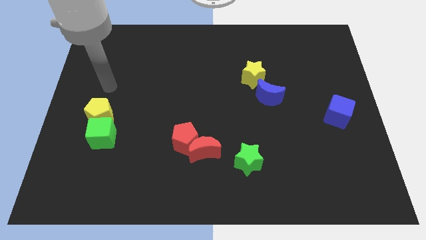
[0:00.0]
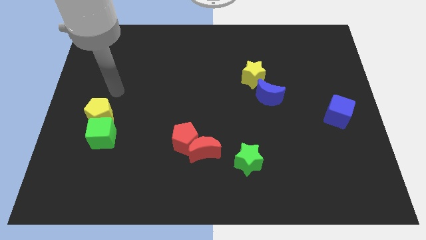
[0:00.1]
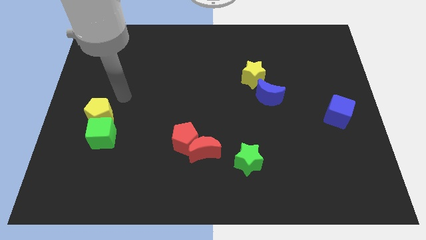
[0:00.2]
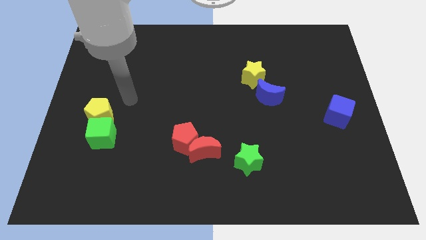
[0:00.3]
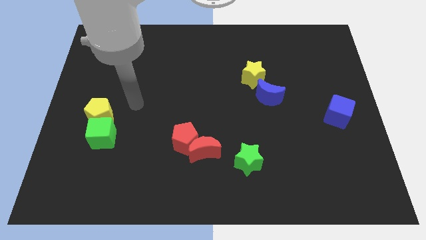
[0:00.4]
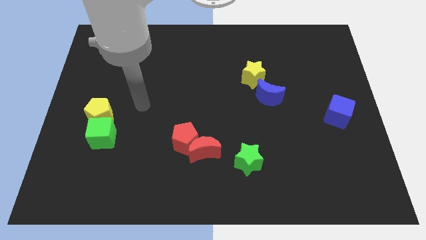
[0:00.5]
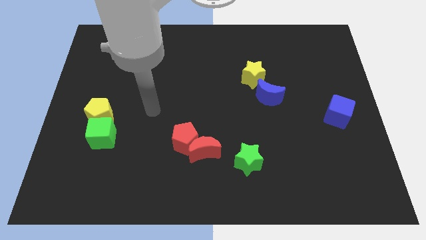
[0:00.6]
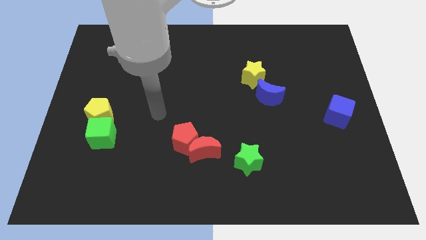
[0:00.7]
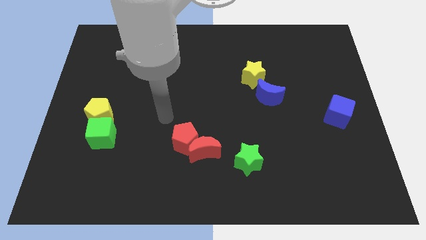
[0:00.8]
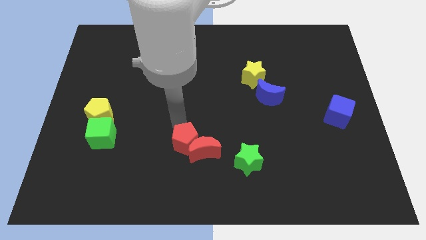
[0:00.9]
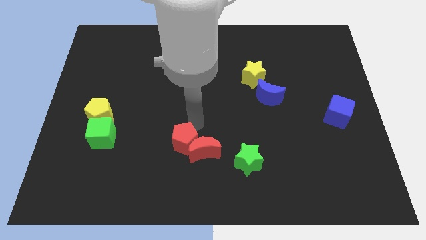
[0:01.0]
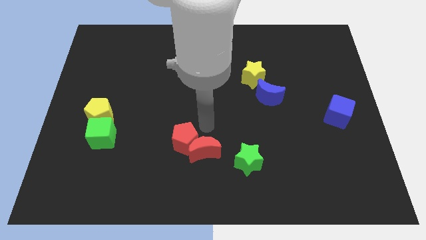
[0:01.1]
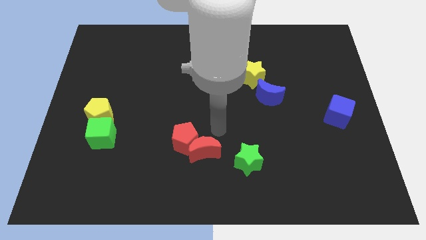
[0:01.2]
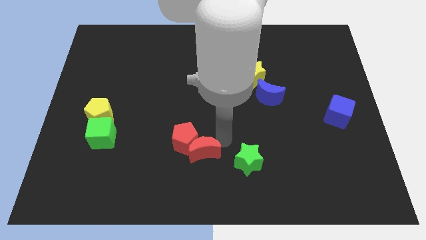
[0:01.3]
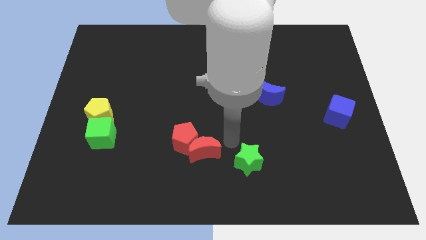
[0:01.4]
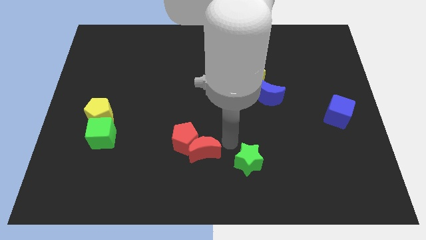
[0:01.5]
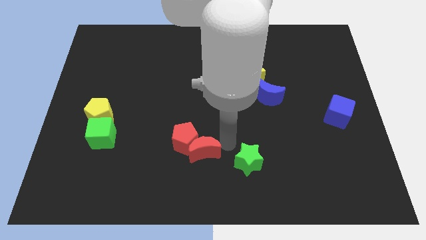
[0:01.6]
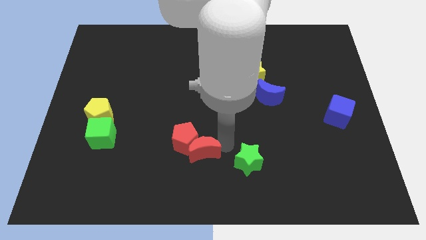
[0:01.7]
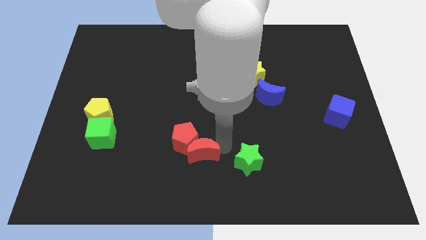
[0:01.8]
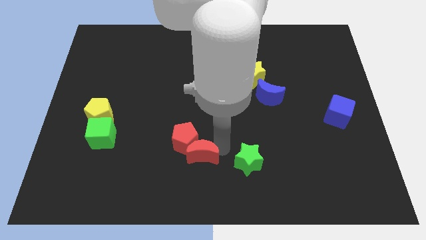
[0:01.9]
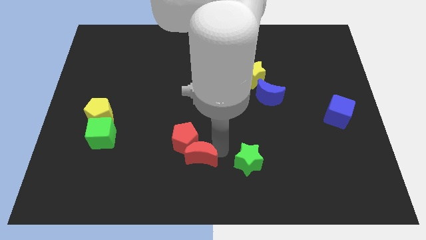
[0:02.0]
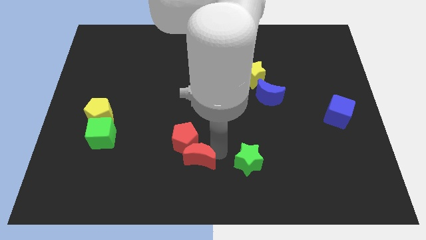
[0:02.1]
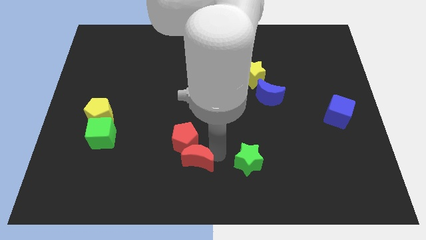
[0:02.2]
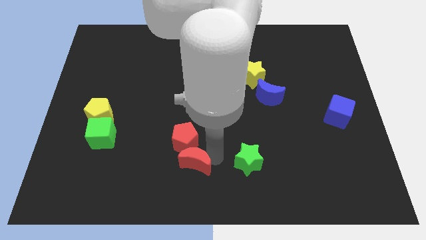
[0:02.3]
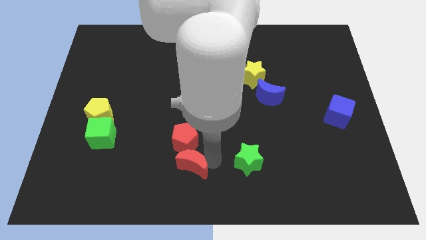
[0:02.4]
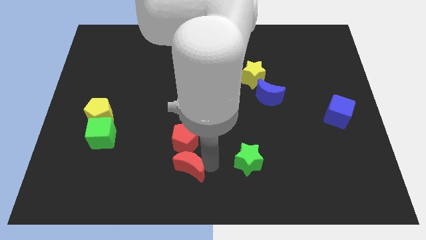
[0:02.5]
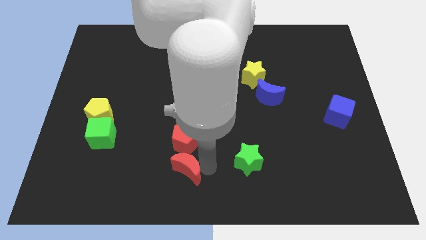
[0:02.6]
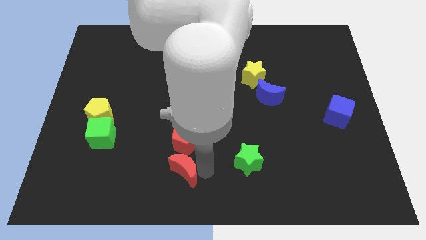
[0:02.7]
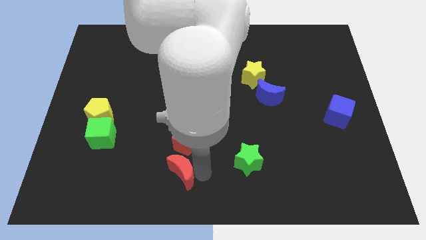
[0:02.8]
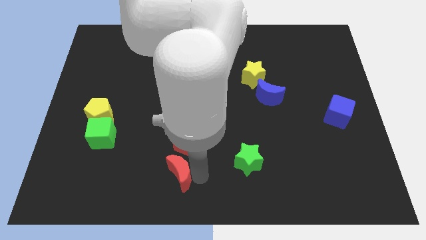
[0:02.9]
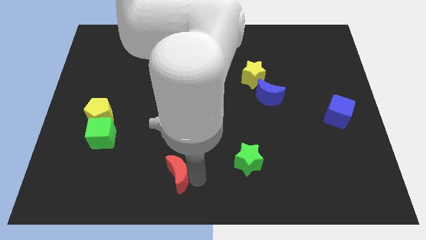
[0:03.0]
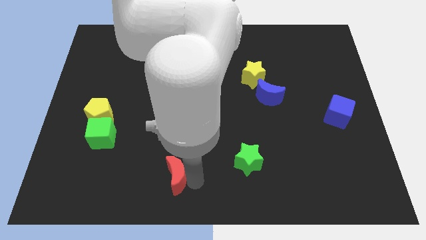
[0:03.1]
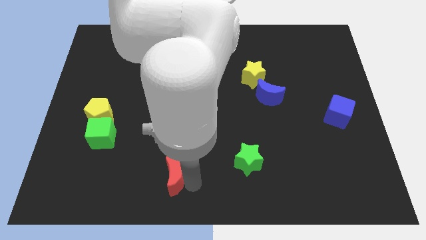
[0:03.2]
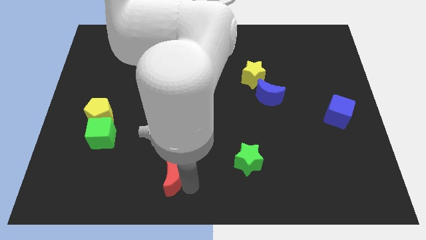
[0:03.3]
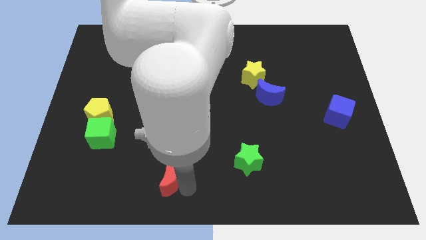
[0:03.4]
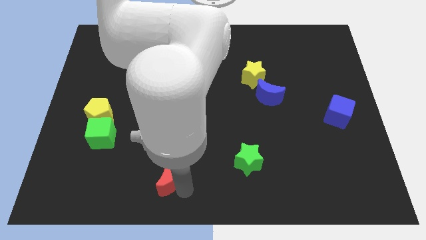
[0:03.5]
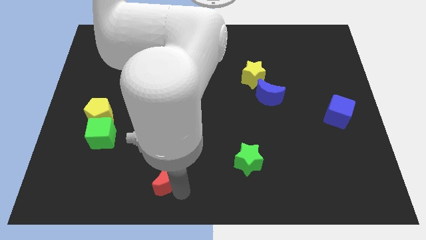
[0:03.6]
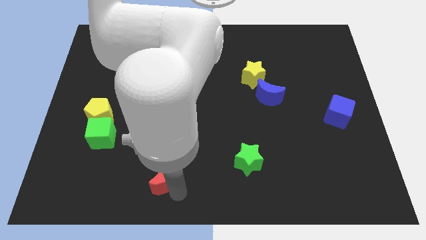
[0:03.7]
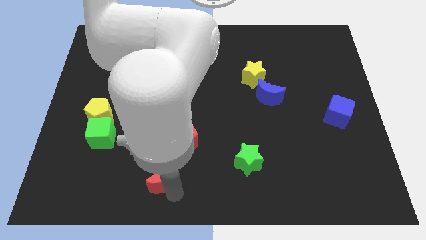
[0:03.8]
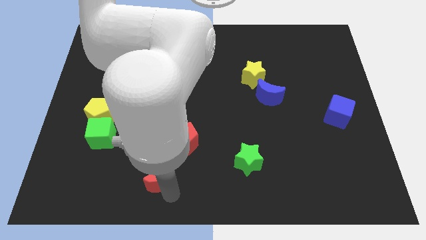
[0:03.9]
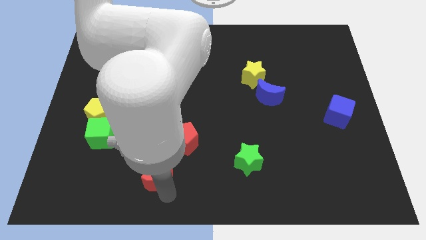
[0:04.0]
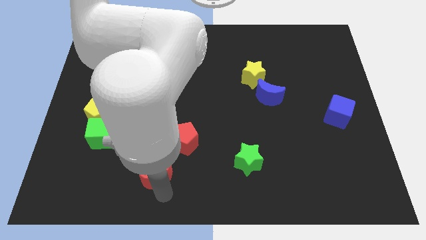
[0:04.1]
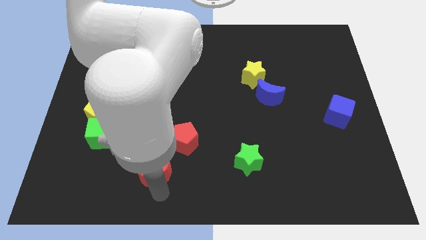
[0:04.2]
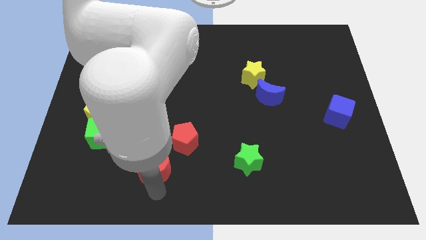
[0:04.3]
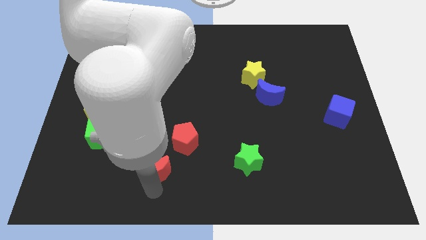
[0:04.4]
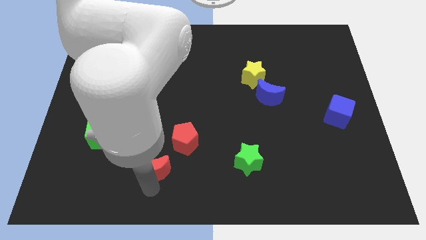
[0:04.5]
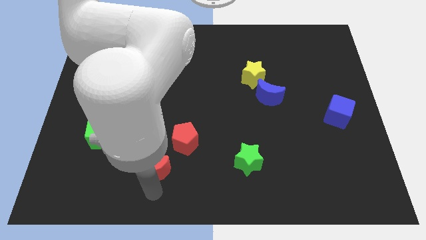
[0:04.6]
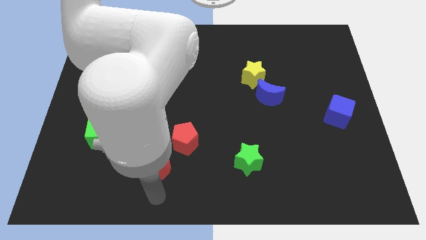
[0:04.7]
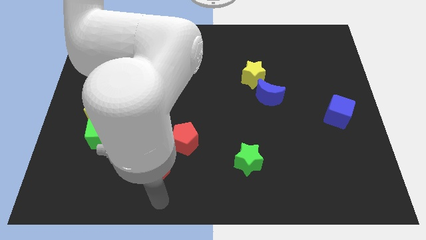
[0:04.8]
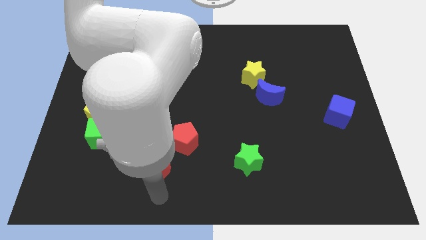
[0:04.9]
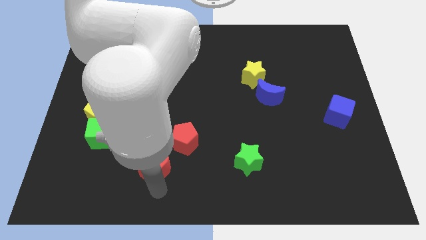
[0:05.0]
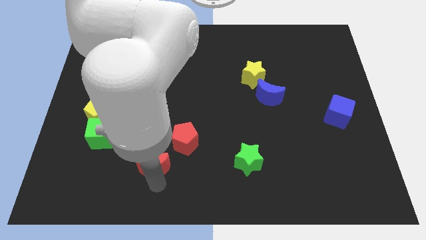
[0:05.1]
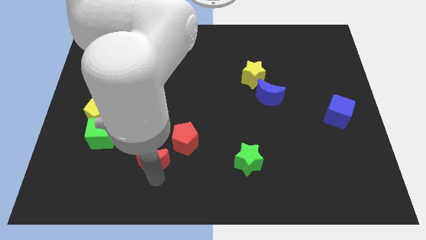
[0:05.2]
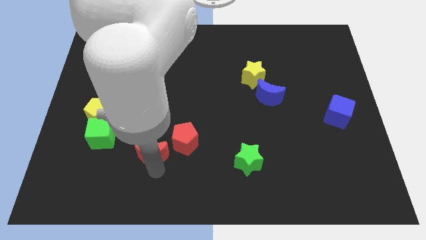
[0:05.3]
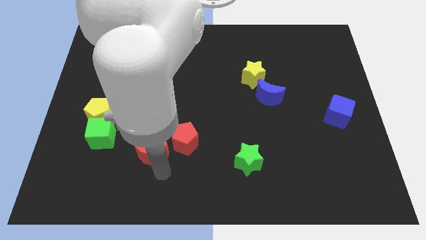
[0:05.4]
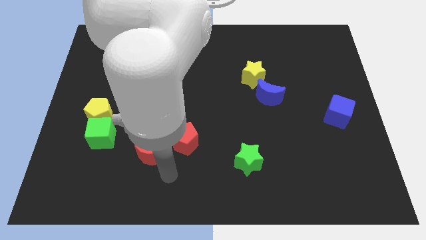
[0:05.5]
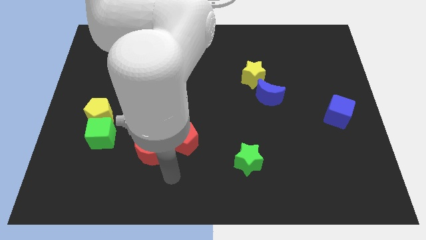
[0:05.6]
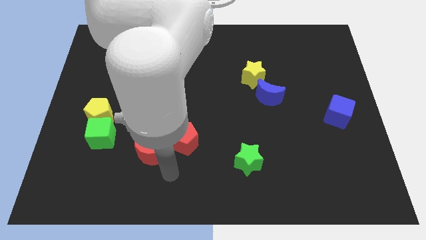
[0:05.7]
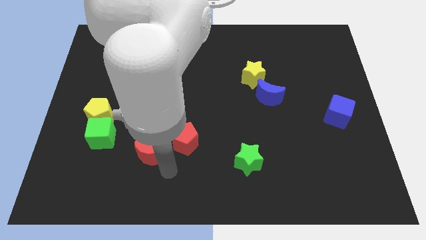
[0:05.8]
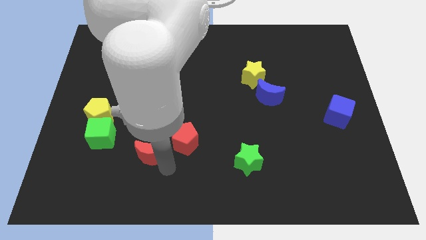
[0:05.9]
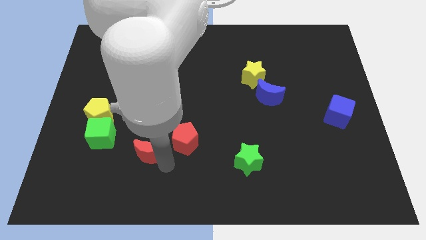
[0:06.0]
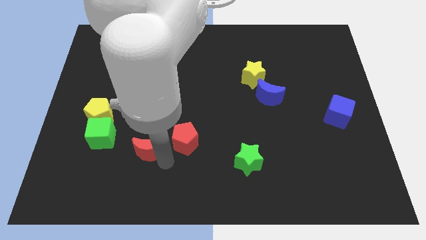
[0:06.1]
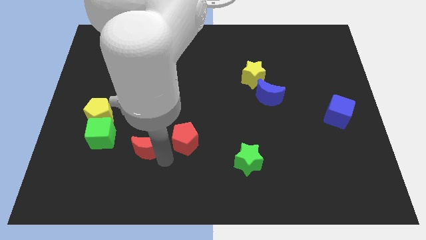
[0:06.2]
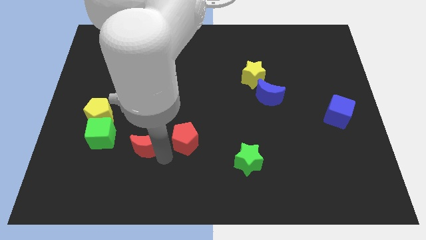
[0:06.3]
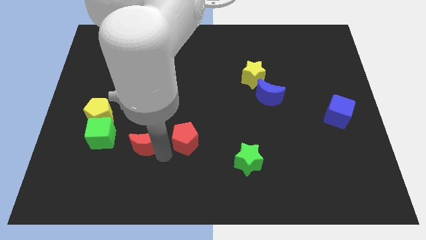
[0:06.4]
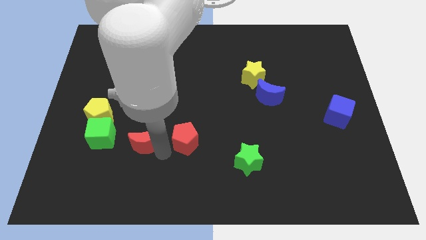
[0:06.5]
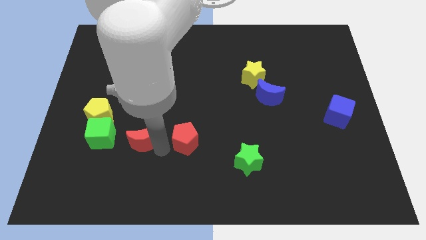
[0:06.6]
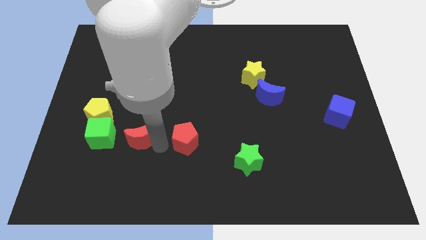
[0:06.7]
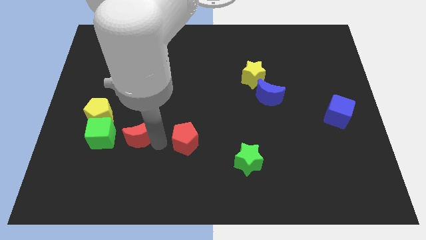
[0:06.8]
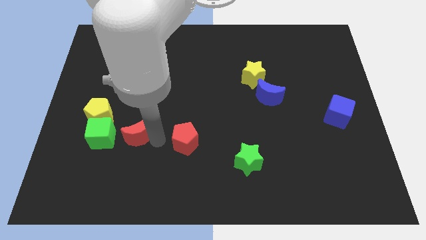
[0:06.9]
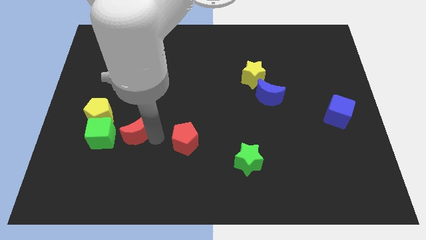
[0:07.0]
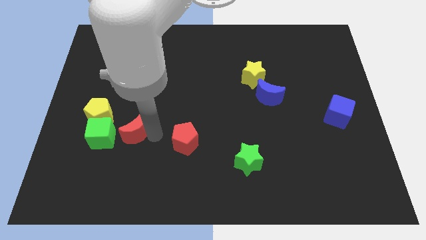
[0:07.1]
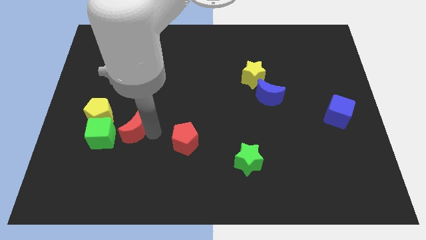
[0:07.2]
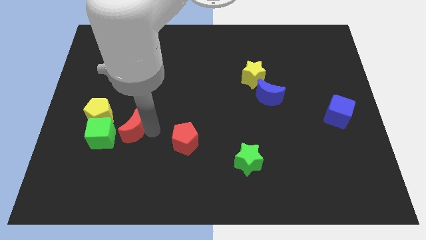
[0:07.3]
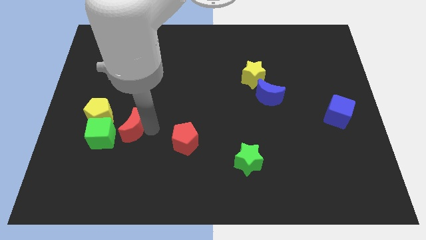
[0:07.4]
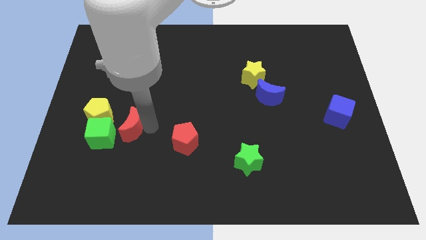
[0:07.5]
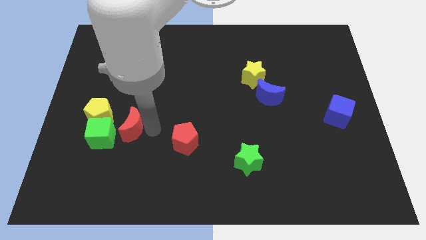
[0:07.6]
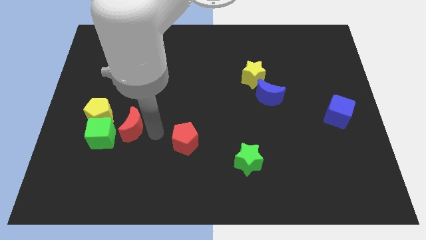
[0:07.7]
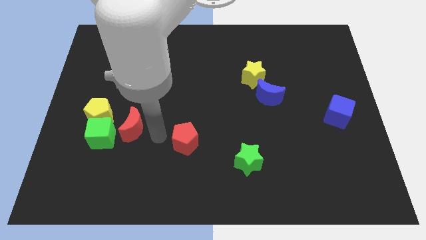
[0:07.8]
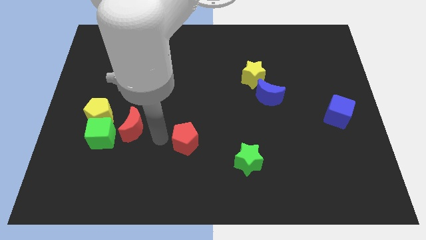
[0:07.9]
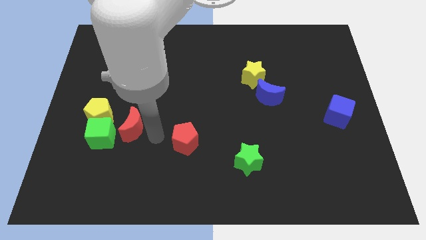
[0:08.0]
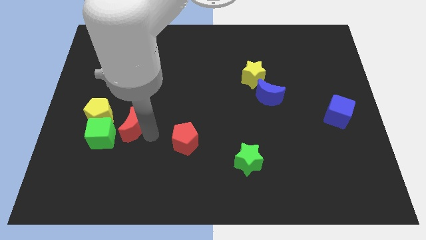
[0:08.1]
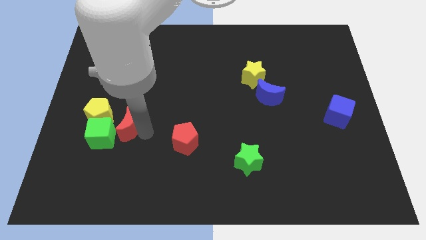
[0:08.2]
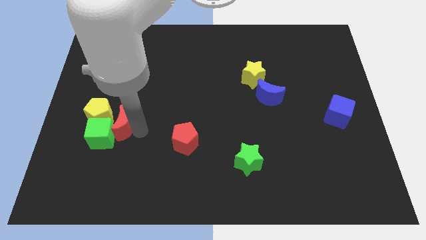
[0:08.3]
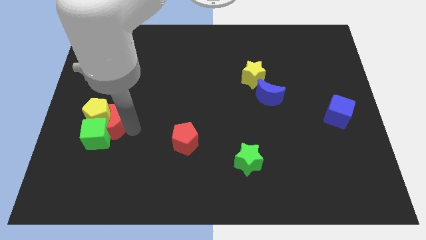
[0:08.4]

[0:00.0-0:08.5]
slide the red moon close to the yellow pentagon
